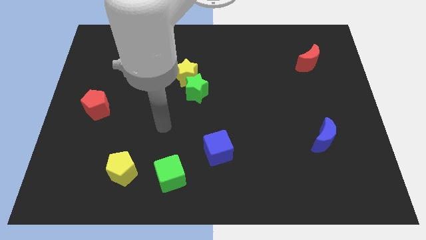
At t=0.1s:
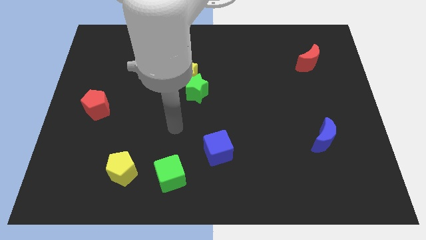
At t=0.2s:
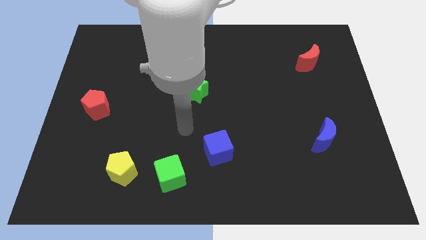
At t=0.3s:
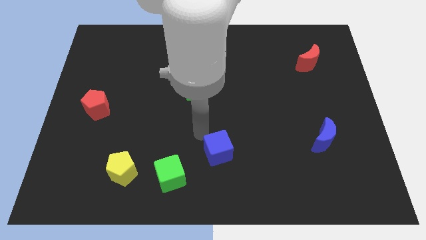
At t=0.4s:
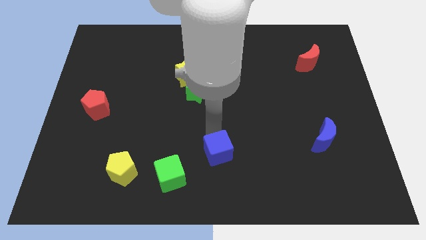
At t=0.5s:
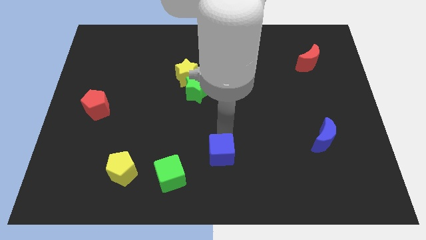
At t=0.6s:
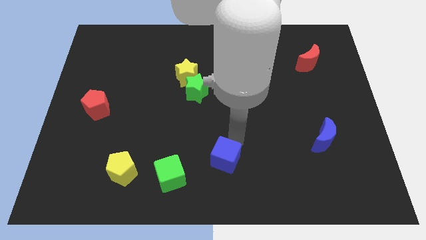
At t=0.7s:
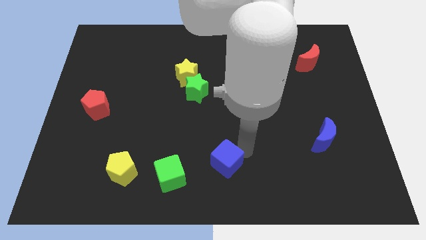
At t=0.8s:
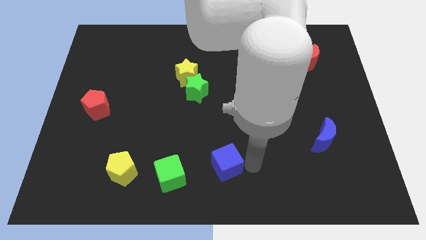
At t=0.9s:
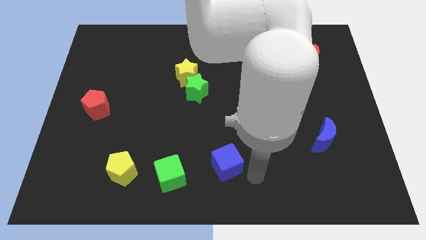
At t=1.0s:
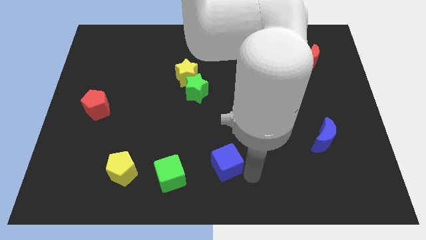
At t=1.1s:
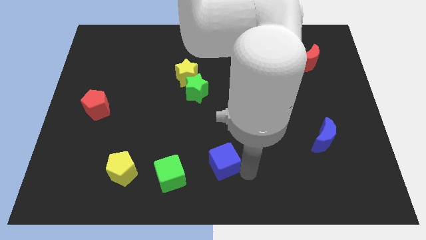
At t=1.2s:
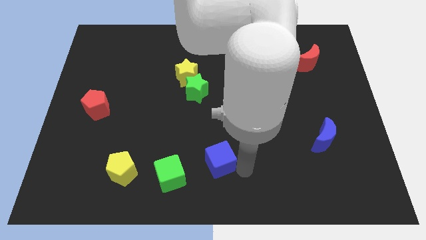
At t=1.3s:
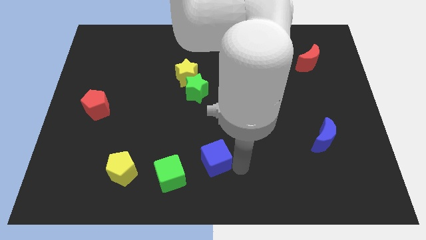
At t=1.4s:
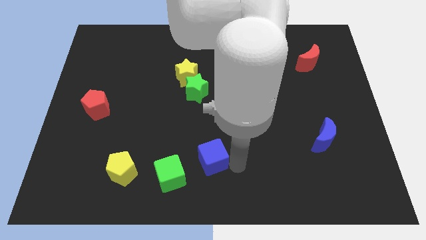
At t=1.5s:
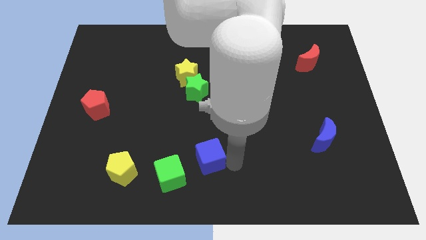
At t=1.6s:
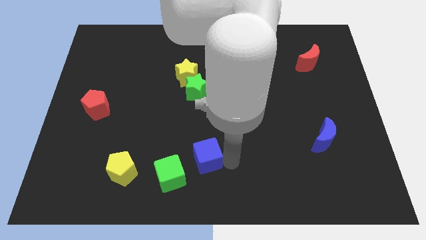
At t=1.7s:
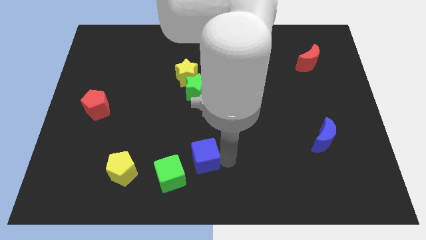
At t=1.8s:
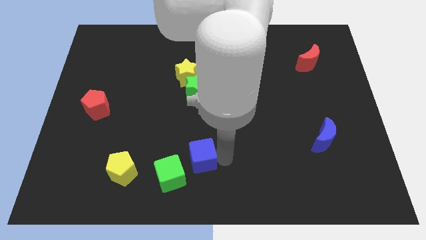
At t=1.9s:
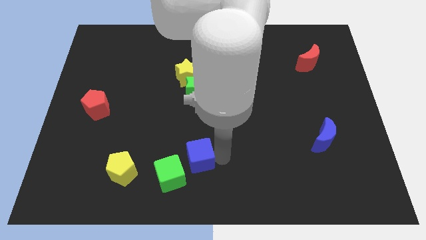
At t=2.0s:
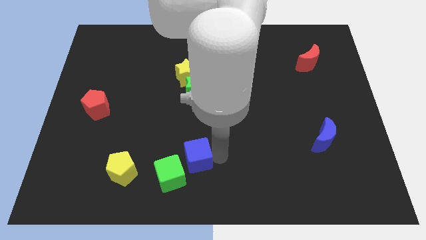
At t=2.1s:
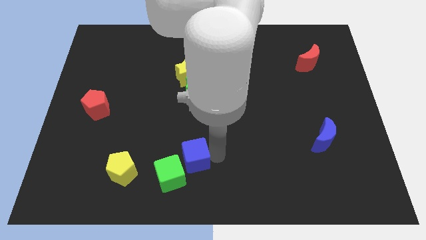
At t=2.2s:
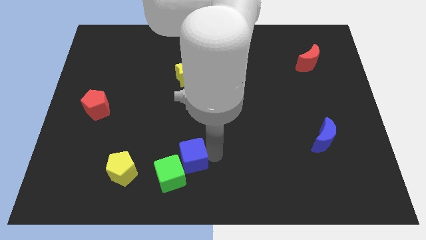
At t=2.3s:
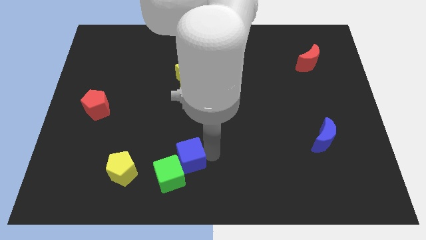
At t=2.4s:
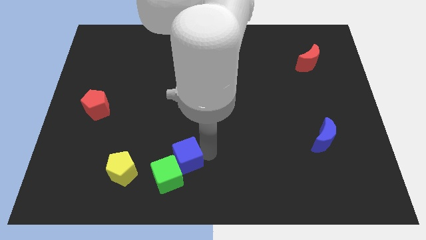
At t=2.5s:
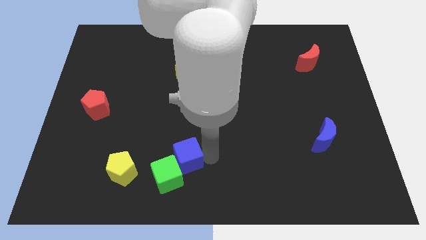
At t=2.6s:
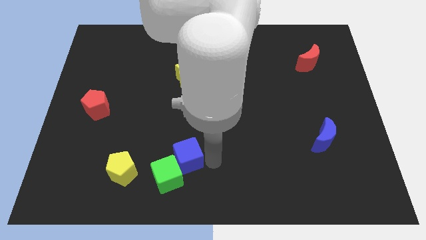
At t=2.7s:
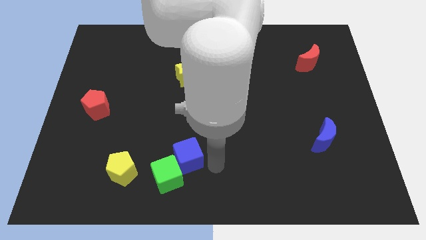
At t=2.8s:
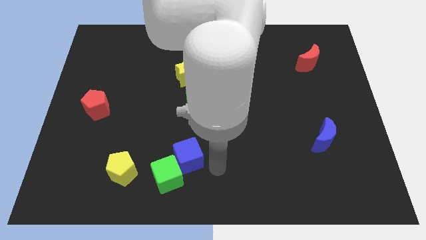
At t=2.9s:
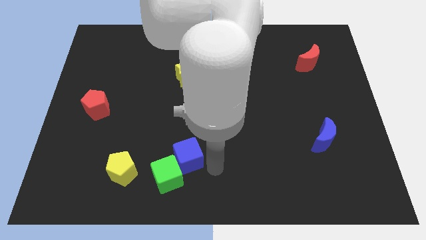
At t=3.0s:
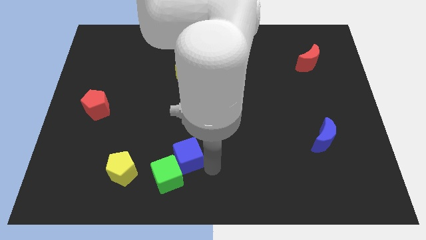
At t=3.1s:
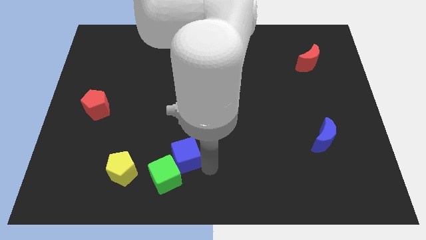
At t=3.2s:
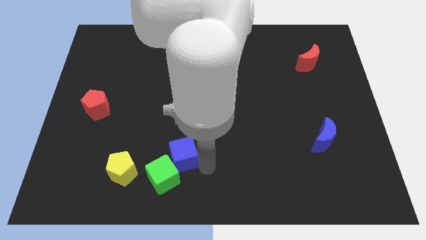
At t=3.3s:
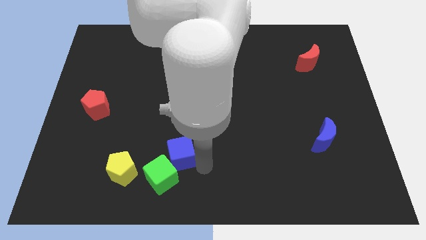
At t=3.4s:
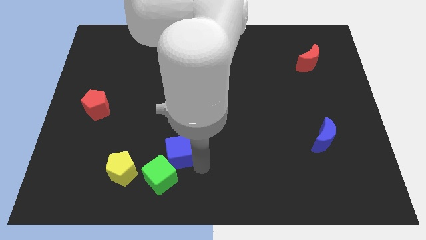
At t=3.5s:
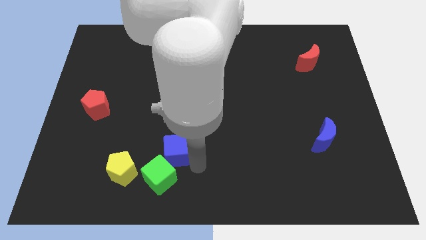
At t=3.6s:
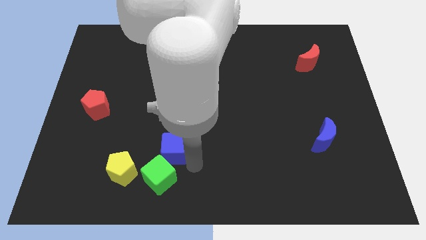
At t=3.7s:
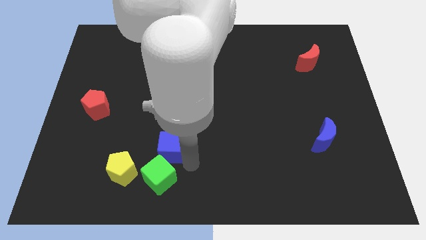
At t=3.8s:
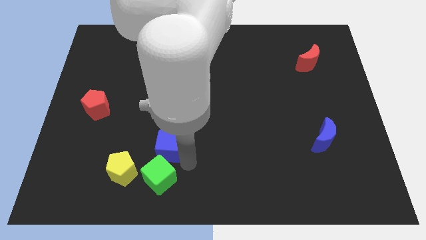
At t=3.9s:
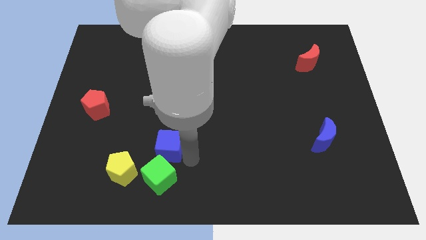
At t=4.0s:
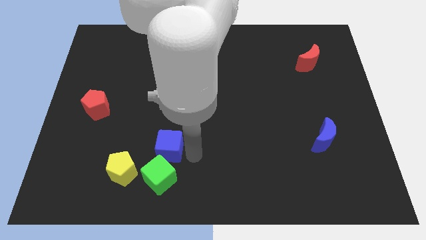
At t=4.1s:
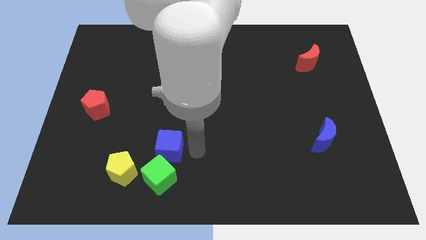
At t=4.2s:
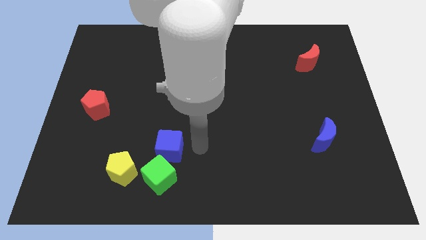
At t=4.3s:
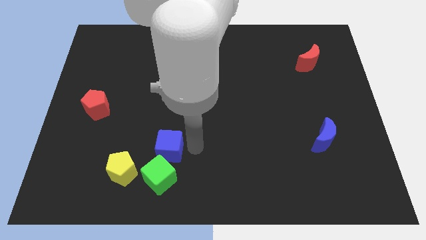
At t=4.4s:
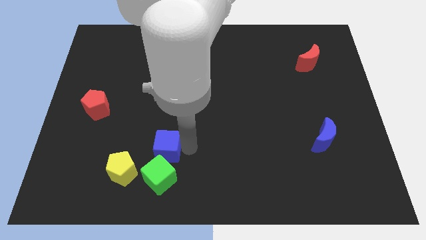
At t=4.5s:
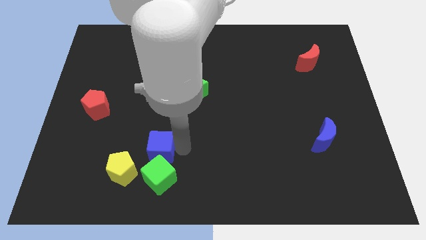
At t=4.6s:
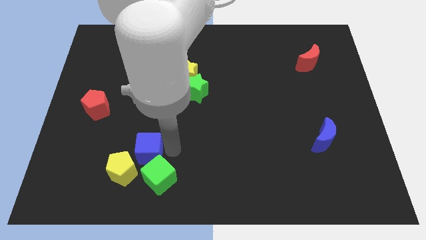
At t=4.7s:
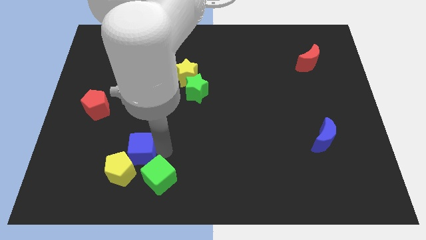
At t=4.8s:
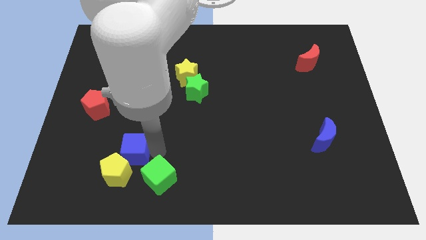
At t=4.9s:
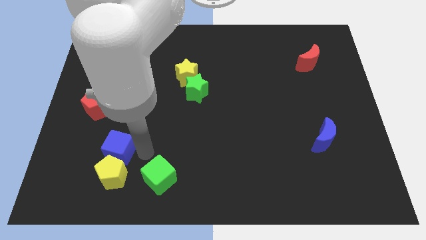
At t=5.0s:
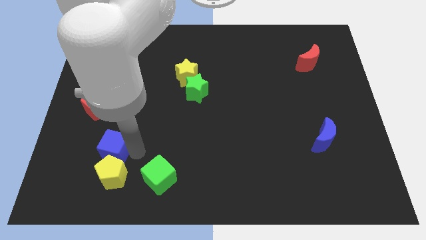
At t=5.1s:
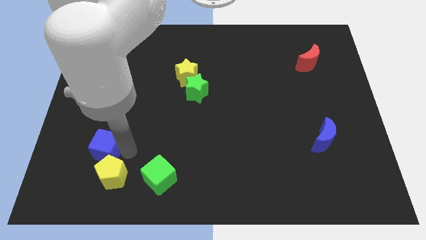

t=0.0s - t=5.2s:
slide the blue cube below the red pentagon

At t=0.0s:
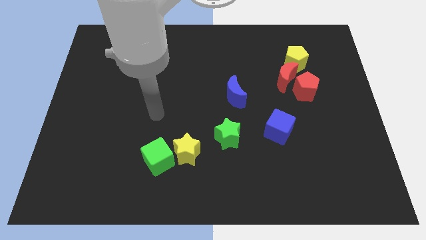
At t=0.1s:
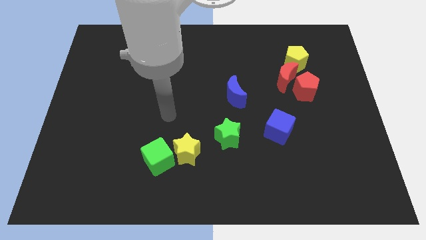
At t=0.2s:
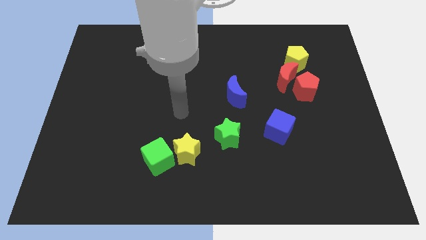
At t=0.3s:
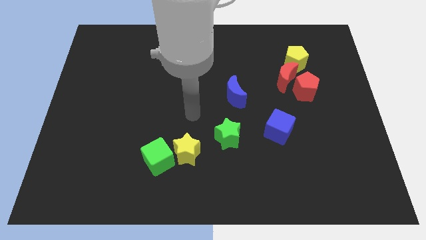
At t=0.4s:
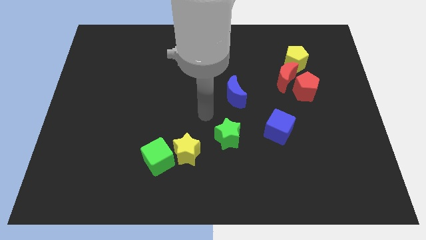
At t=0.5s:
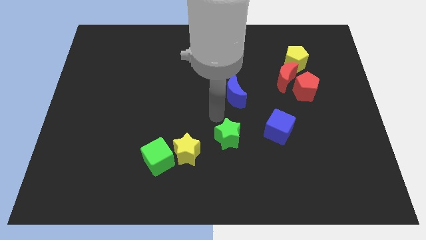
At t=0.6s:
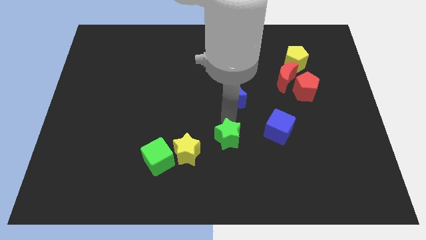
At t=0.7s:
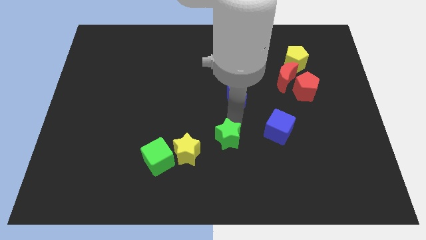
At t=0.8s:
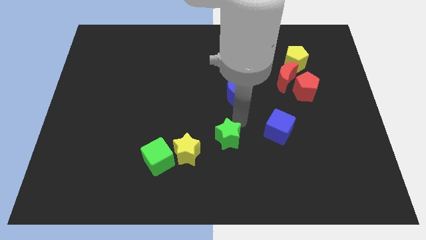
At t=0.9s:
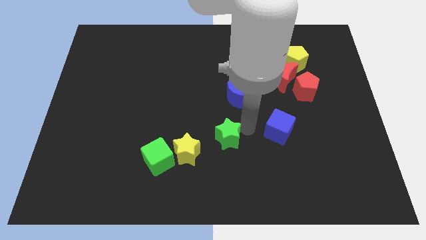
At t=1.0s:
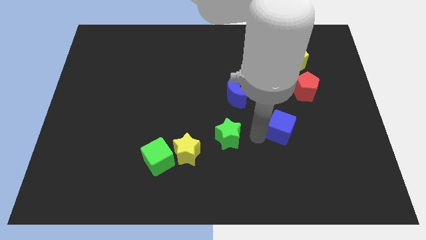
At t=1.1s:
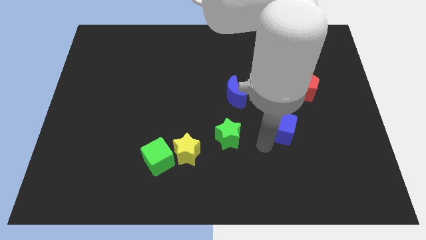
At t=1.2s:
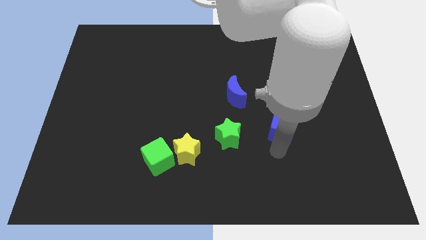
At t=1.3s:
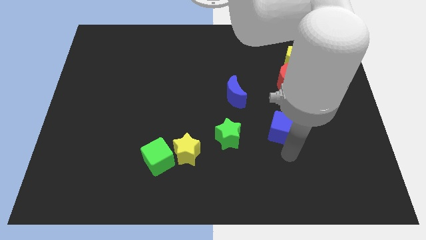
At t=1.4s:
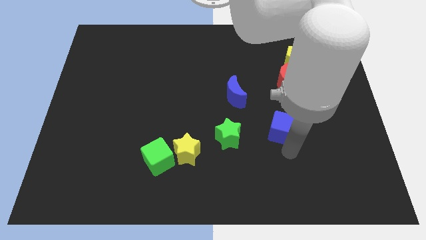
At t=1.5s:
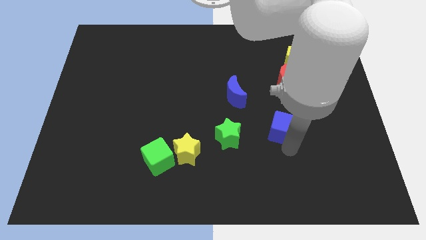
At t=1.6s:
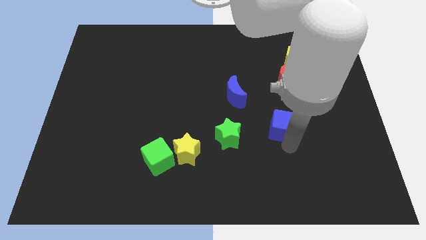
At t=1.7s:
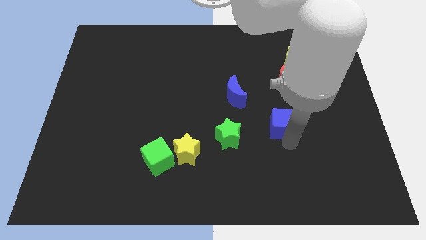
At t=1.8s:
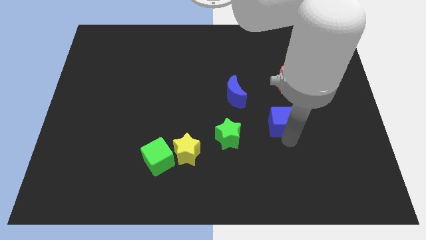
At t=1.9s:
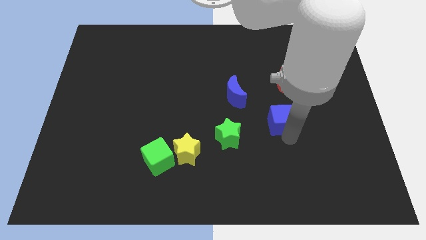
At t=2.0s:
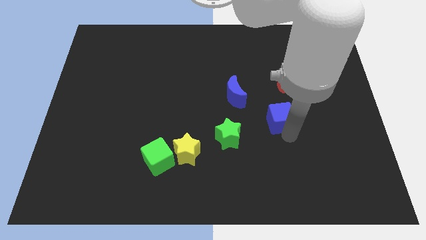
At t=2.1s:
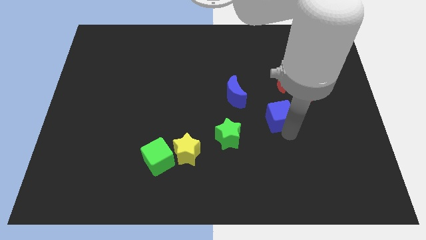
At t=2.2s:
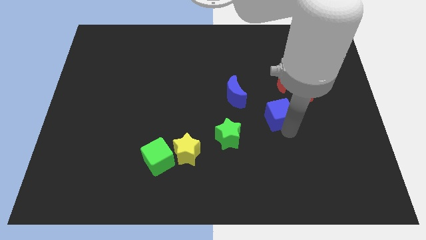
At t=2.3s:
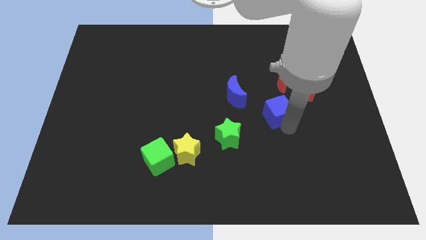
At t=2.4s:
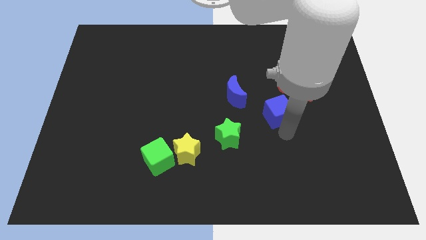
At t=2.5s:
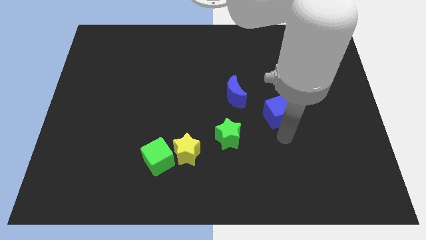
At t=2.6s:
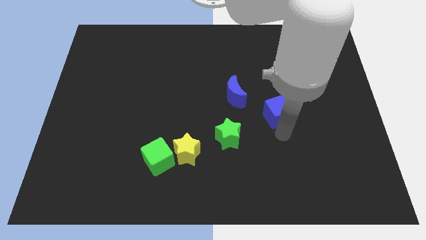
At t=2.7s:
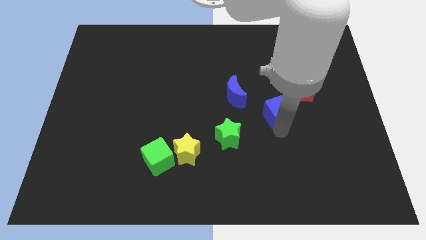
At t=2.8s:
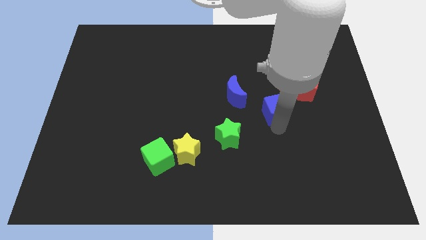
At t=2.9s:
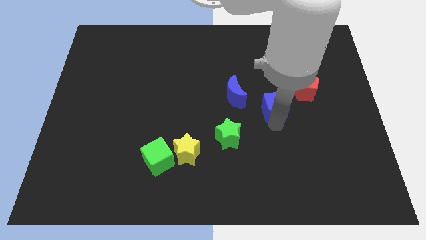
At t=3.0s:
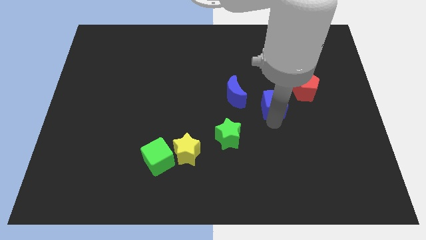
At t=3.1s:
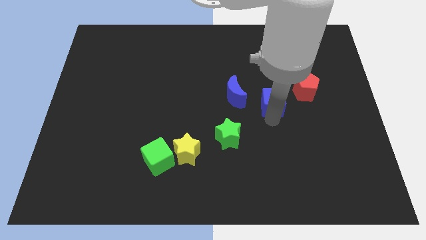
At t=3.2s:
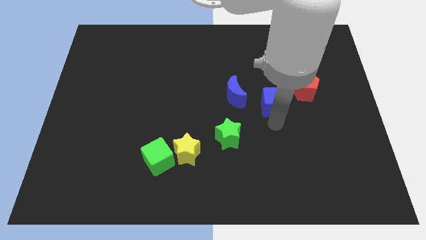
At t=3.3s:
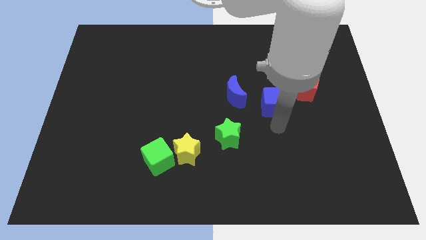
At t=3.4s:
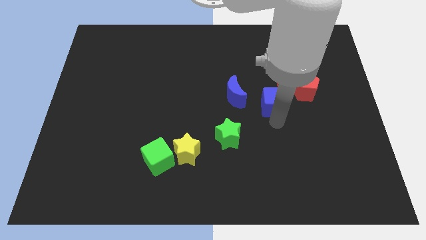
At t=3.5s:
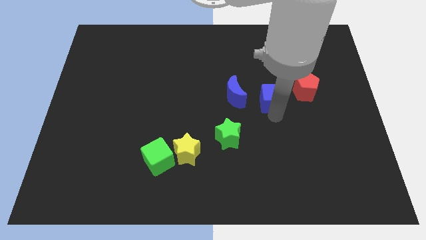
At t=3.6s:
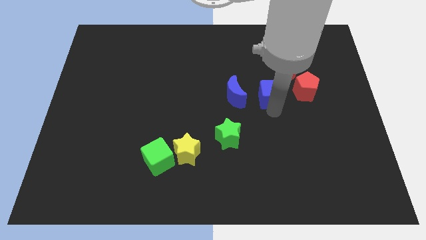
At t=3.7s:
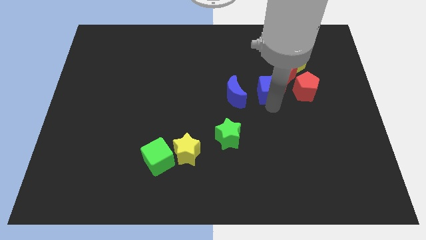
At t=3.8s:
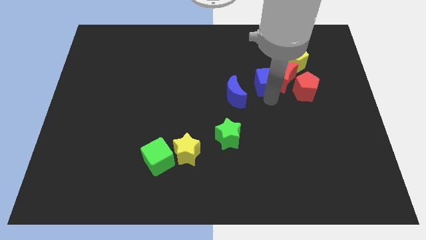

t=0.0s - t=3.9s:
put the blue cube to the top left side of the red moon
